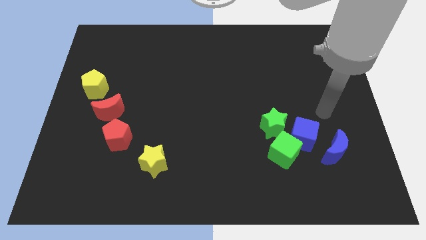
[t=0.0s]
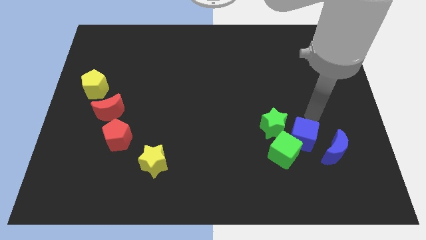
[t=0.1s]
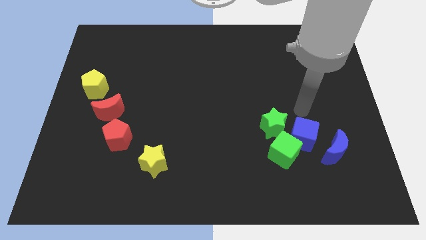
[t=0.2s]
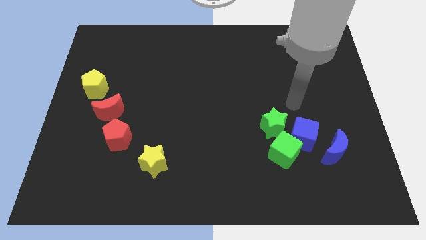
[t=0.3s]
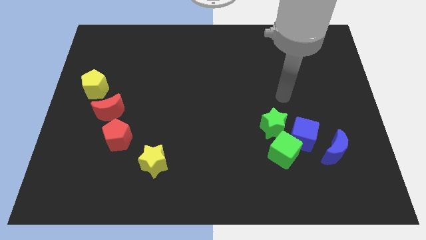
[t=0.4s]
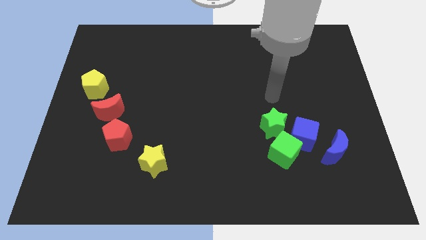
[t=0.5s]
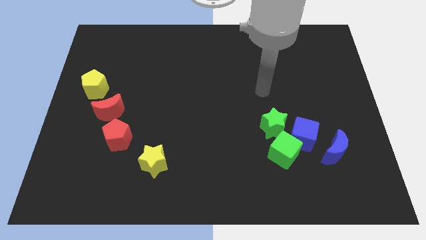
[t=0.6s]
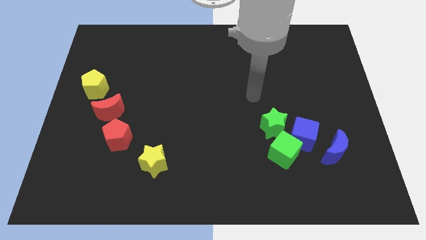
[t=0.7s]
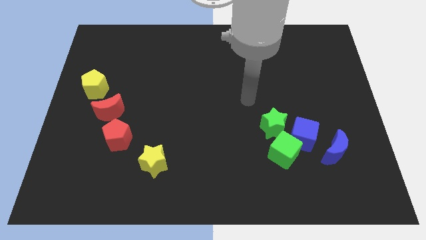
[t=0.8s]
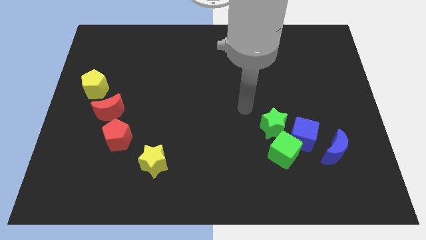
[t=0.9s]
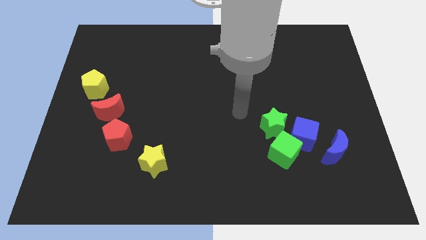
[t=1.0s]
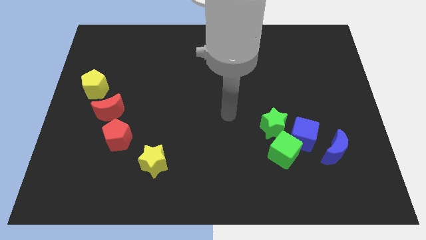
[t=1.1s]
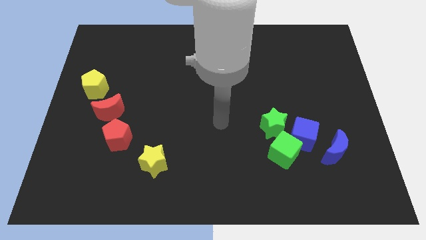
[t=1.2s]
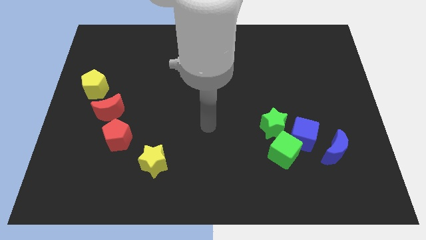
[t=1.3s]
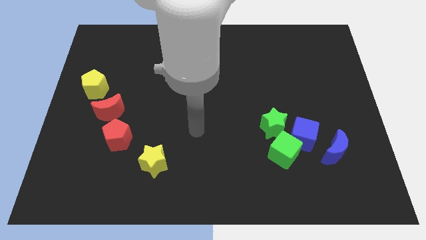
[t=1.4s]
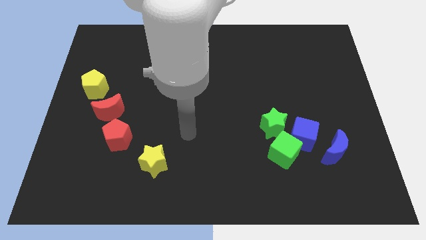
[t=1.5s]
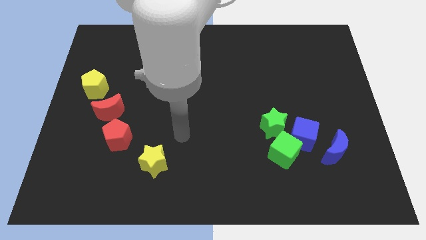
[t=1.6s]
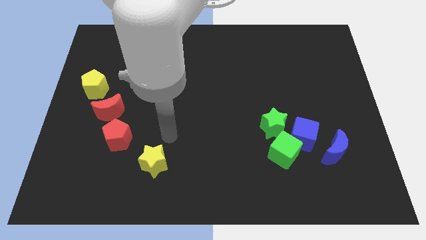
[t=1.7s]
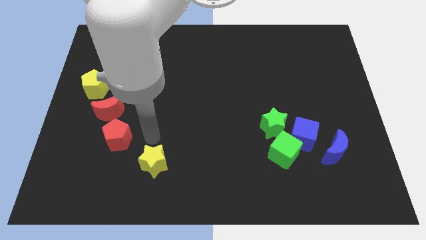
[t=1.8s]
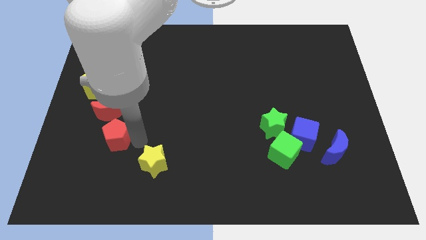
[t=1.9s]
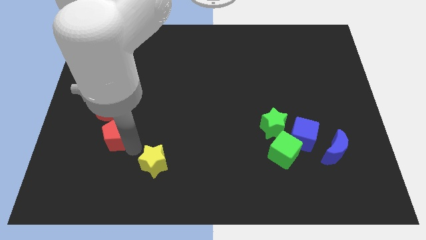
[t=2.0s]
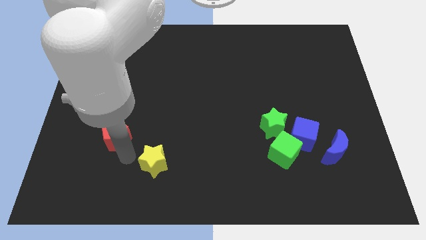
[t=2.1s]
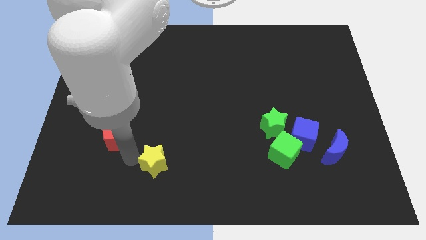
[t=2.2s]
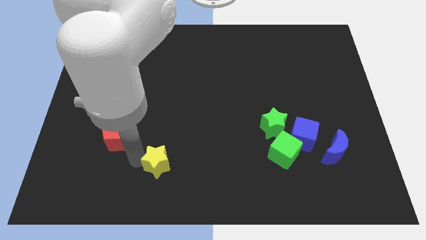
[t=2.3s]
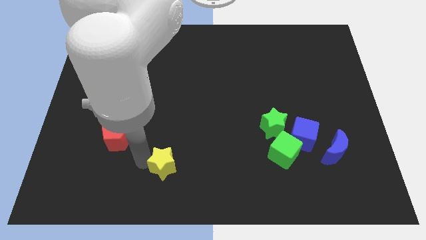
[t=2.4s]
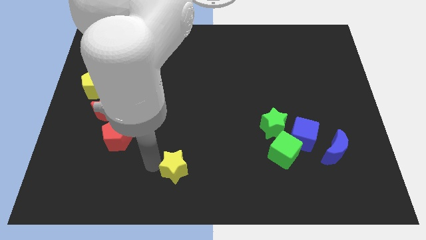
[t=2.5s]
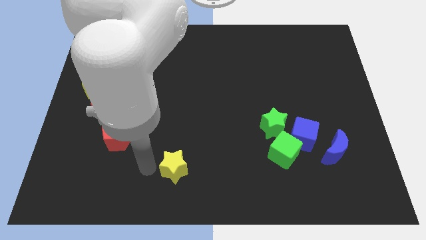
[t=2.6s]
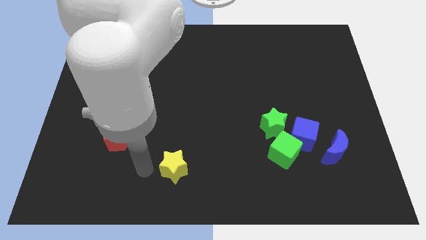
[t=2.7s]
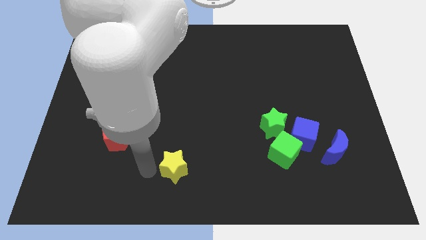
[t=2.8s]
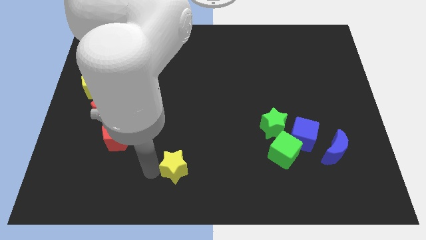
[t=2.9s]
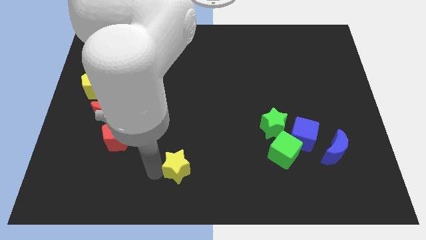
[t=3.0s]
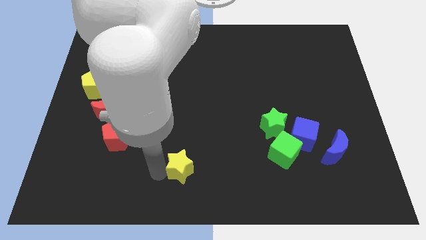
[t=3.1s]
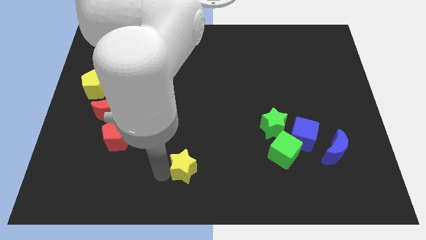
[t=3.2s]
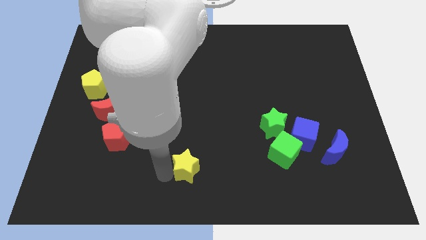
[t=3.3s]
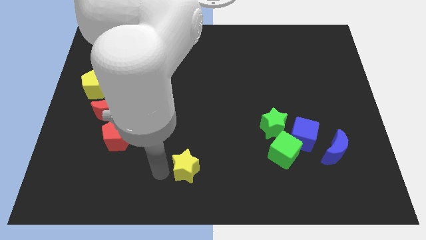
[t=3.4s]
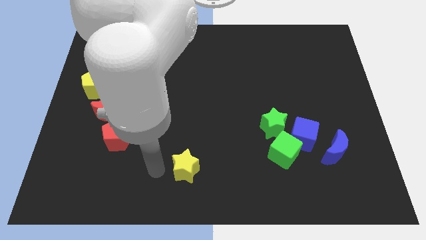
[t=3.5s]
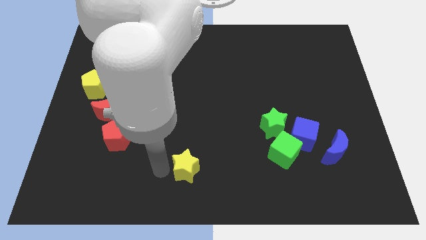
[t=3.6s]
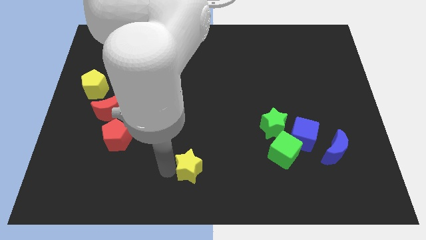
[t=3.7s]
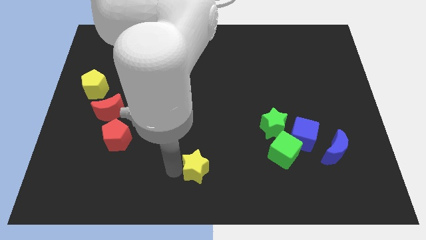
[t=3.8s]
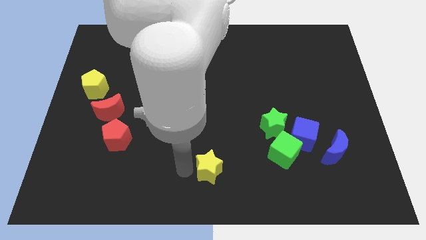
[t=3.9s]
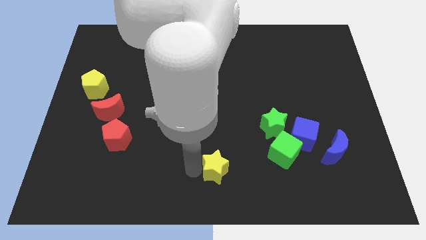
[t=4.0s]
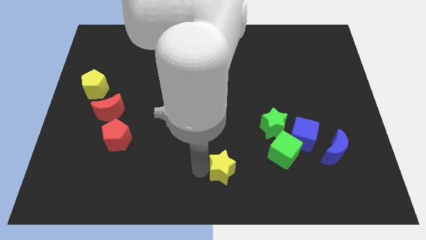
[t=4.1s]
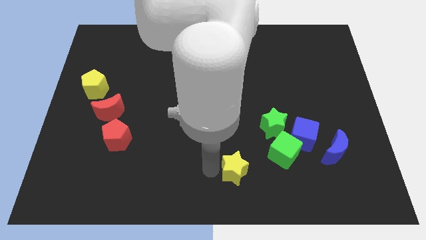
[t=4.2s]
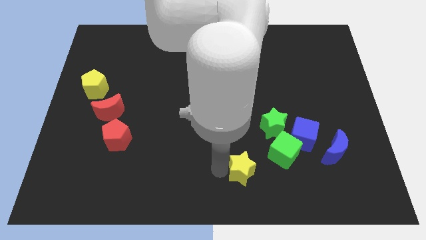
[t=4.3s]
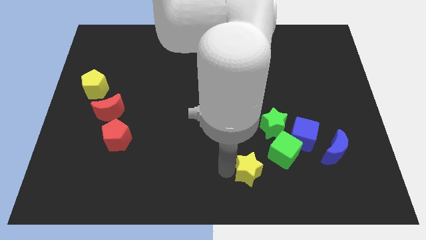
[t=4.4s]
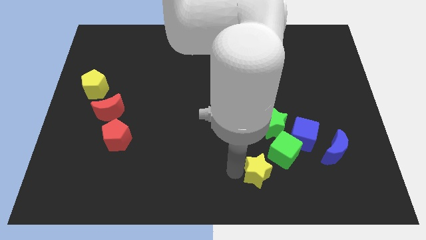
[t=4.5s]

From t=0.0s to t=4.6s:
slide the yellow star right

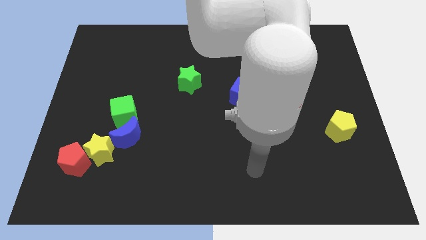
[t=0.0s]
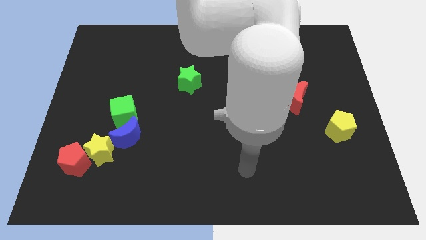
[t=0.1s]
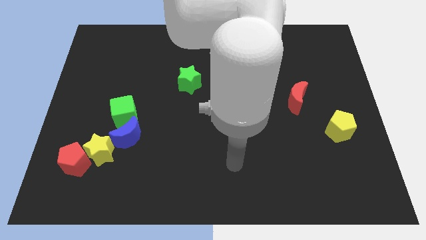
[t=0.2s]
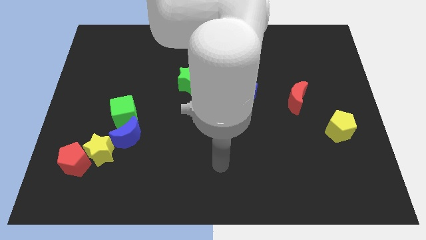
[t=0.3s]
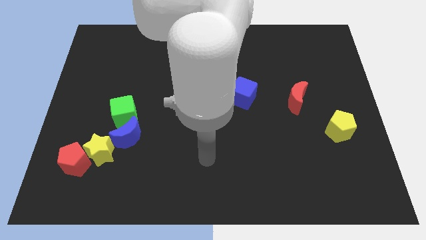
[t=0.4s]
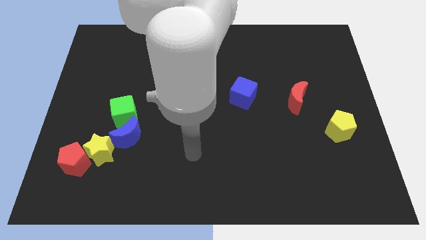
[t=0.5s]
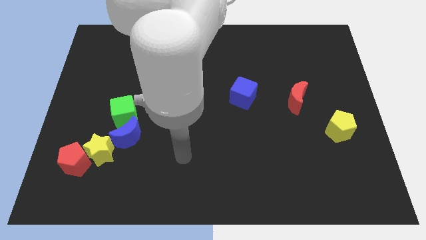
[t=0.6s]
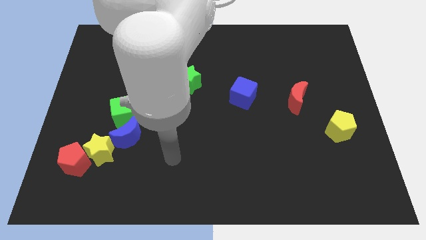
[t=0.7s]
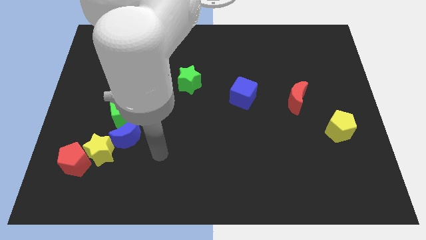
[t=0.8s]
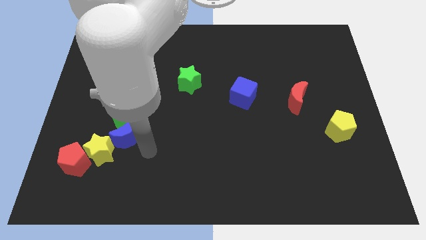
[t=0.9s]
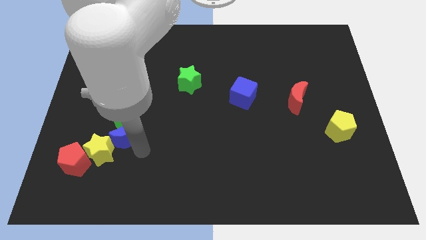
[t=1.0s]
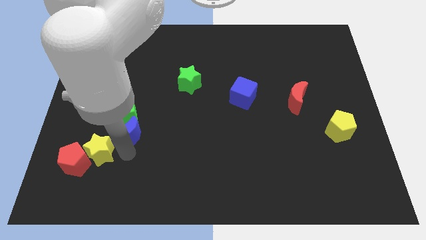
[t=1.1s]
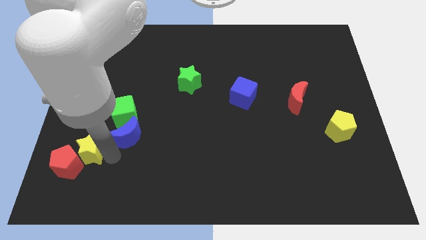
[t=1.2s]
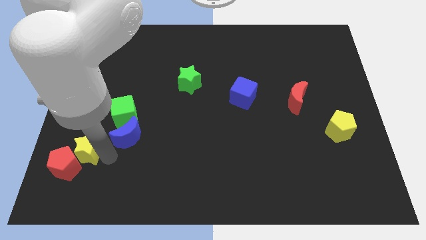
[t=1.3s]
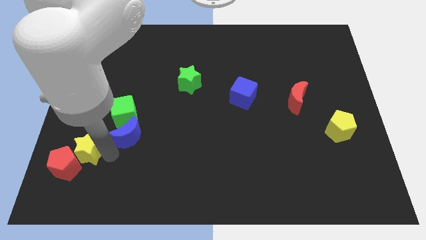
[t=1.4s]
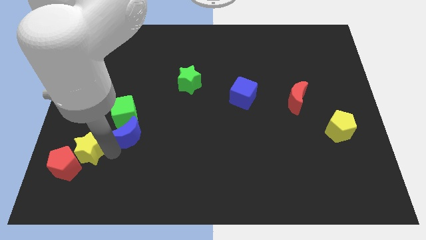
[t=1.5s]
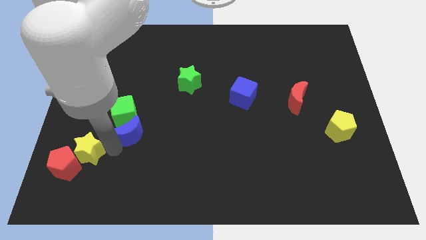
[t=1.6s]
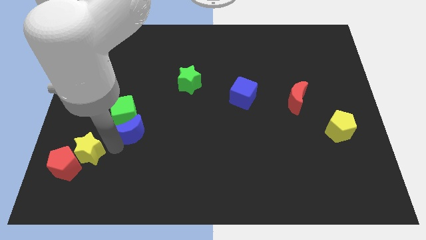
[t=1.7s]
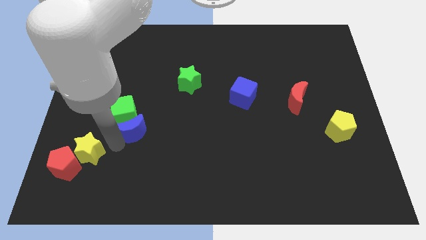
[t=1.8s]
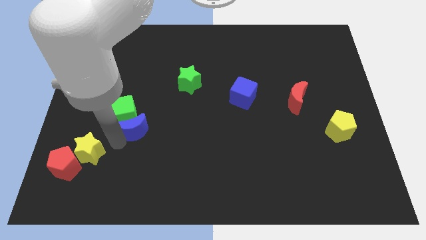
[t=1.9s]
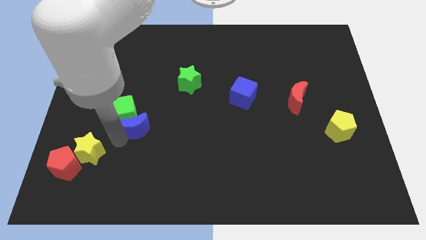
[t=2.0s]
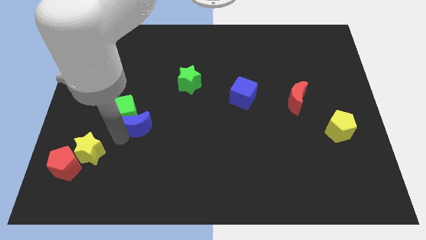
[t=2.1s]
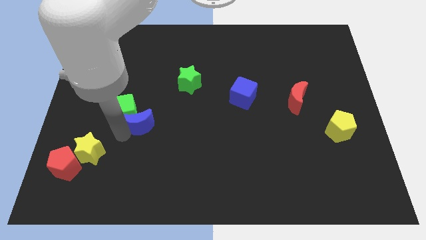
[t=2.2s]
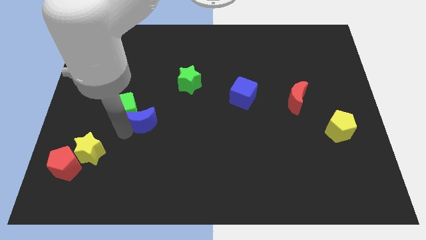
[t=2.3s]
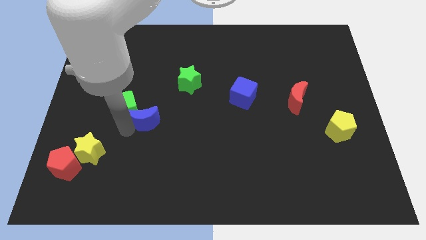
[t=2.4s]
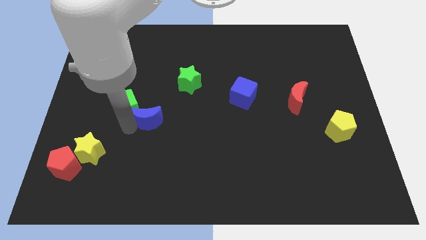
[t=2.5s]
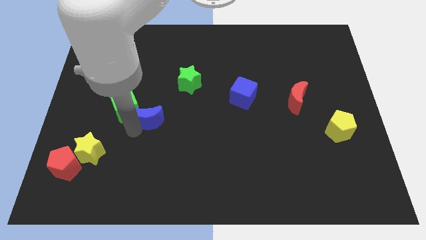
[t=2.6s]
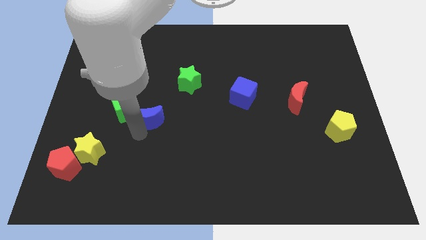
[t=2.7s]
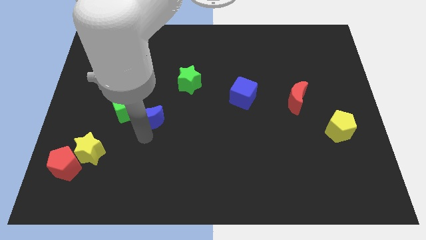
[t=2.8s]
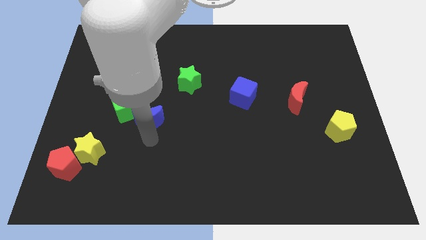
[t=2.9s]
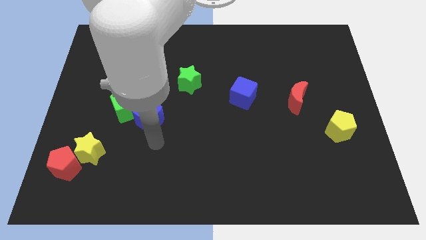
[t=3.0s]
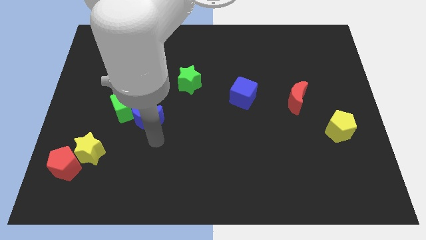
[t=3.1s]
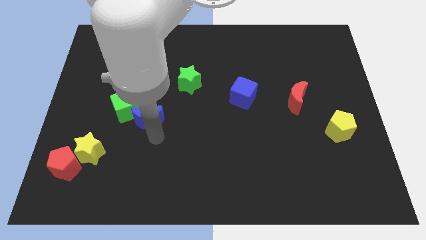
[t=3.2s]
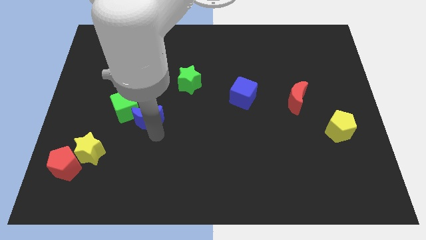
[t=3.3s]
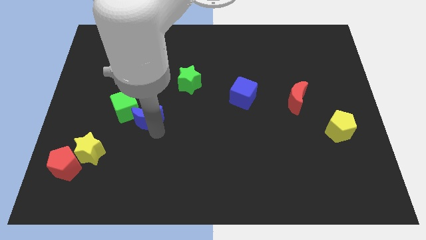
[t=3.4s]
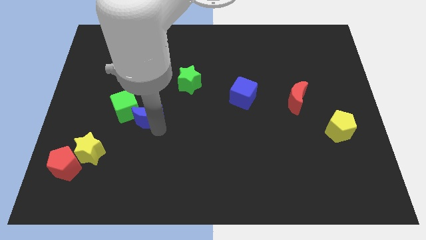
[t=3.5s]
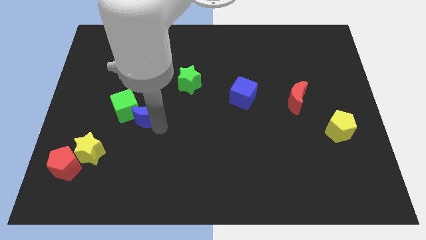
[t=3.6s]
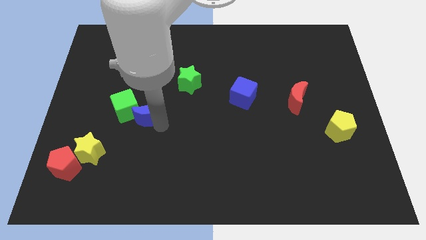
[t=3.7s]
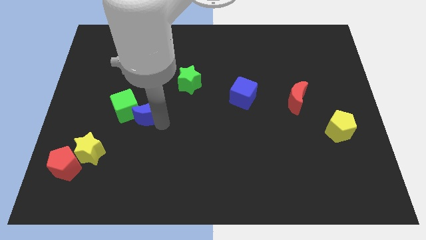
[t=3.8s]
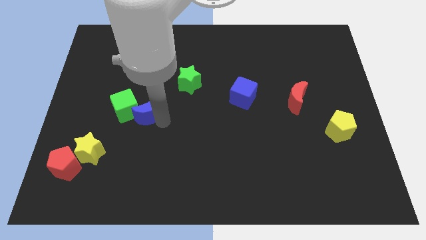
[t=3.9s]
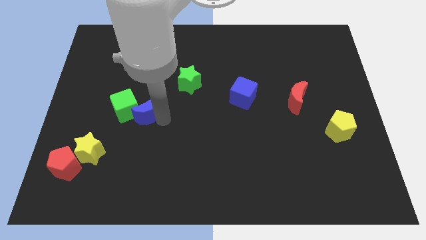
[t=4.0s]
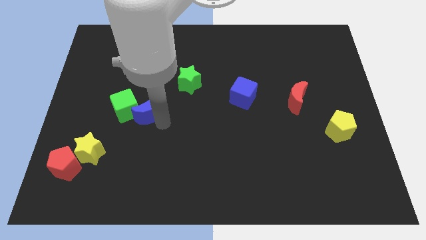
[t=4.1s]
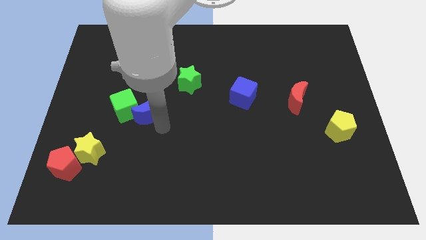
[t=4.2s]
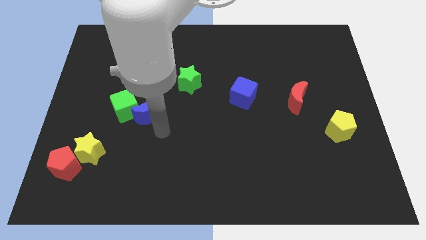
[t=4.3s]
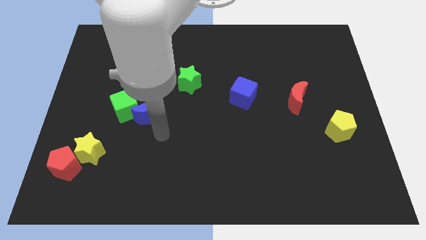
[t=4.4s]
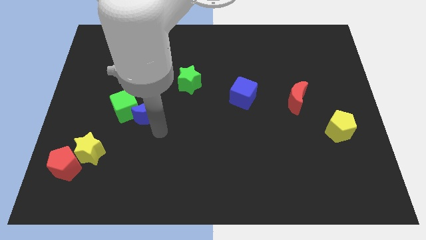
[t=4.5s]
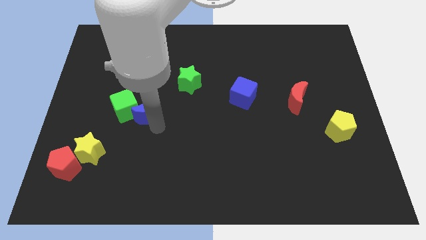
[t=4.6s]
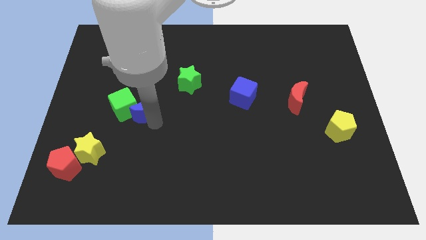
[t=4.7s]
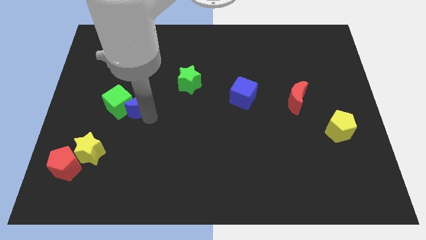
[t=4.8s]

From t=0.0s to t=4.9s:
slide the blue moon somewhat upwards
